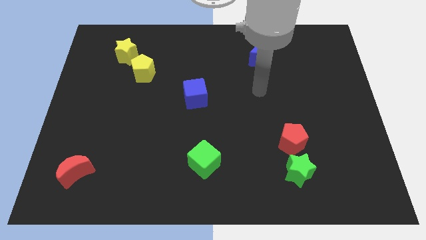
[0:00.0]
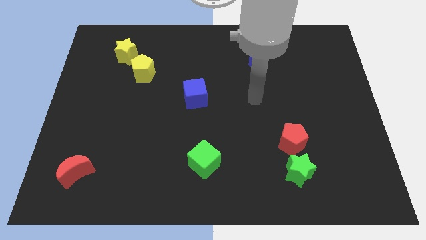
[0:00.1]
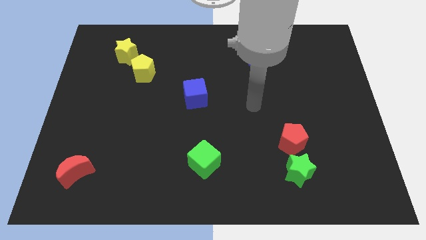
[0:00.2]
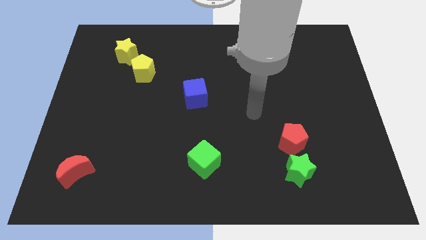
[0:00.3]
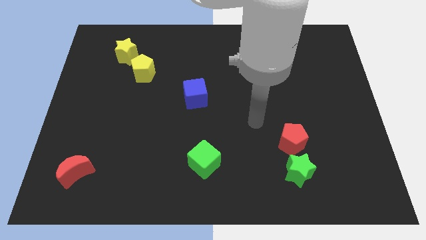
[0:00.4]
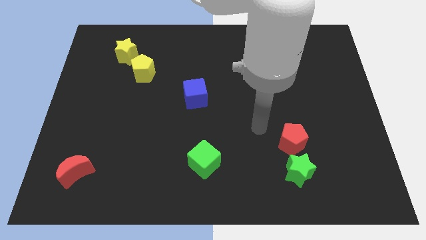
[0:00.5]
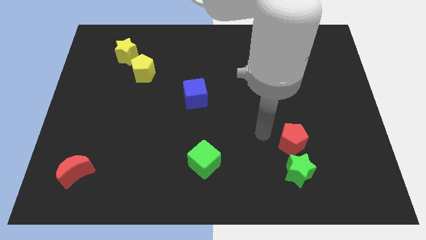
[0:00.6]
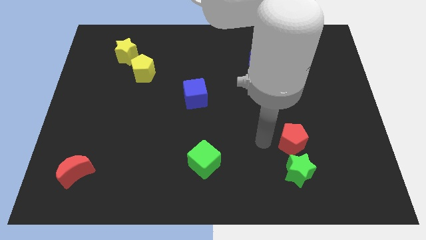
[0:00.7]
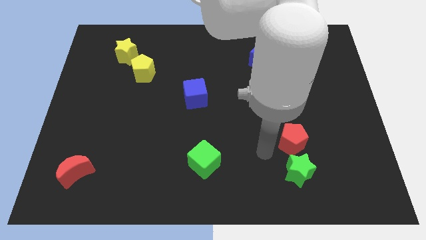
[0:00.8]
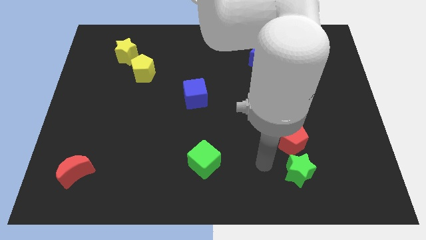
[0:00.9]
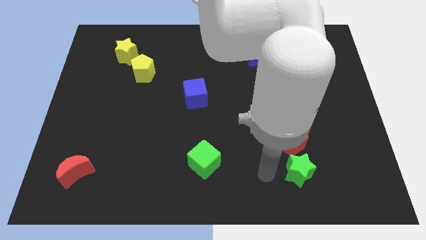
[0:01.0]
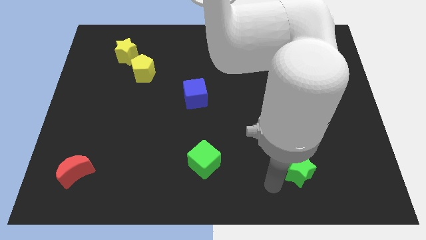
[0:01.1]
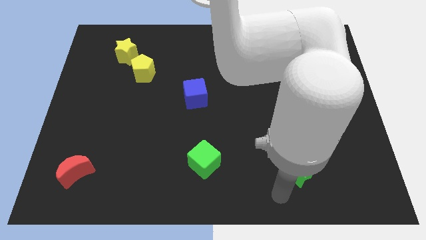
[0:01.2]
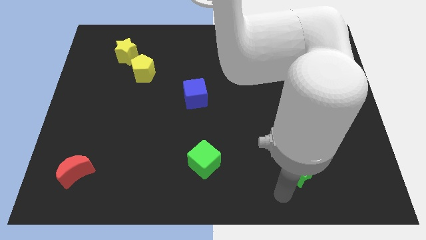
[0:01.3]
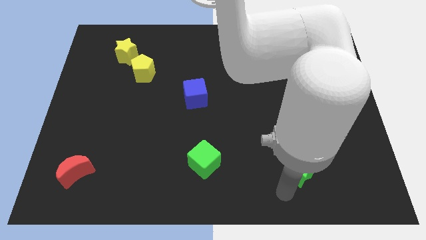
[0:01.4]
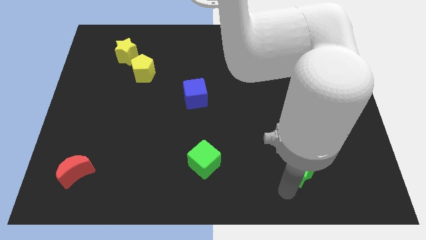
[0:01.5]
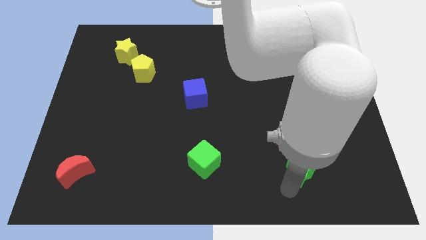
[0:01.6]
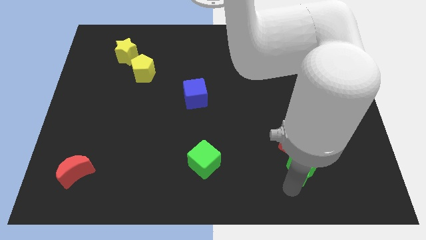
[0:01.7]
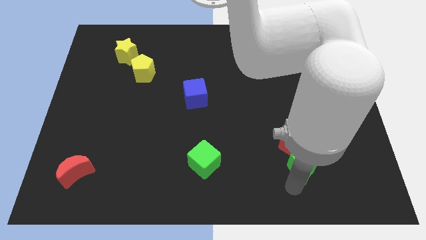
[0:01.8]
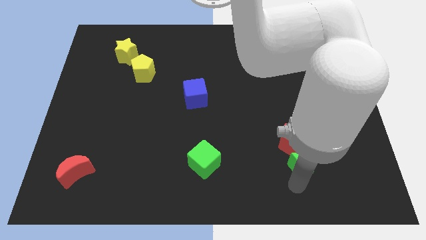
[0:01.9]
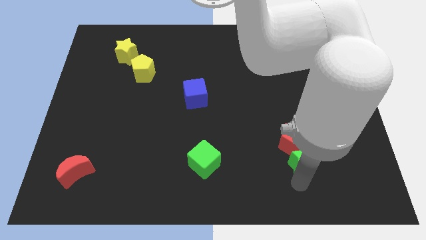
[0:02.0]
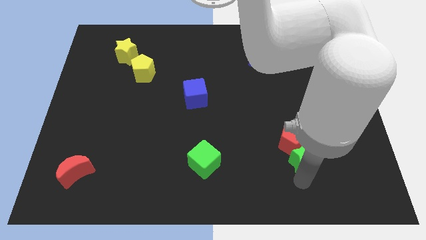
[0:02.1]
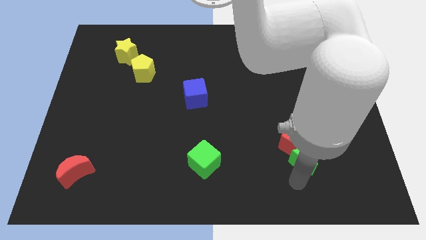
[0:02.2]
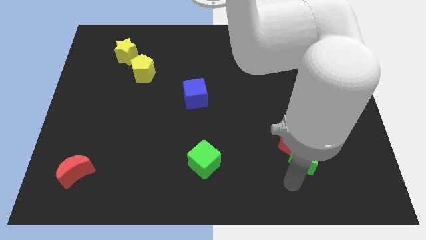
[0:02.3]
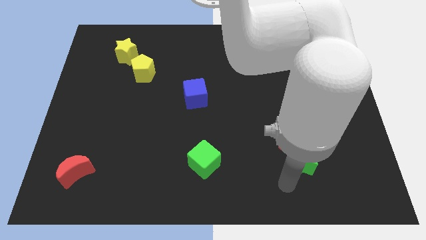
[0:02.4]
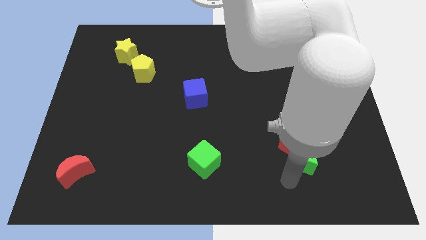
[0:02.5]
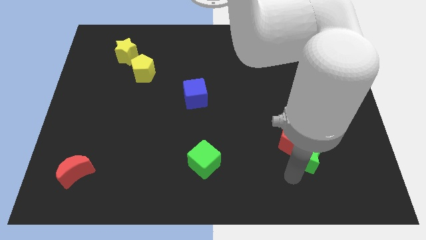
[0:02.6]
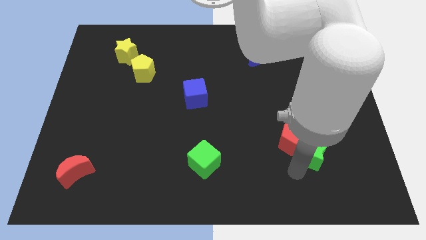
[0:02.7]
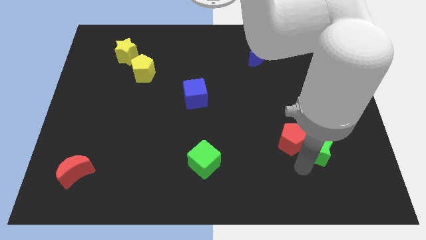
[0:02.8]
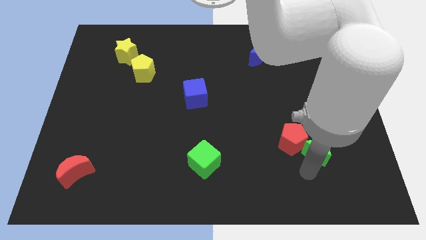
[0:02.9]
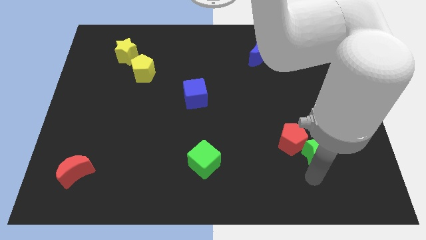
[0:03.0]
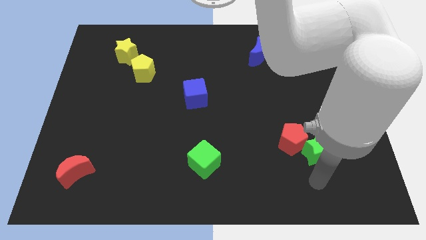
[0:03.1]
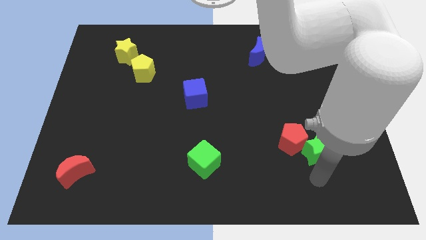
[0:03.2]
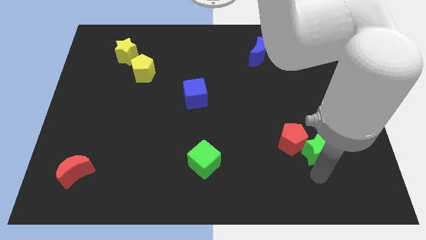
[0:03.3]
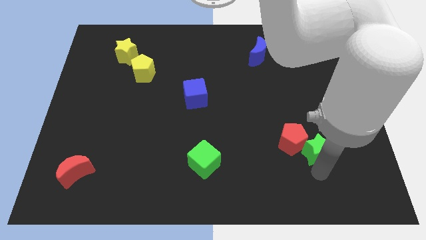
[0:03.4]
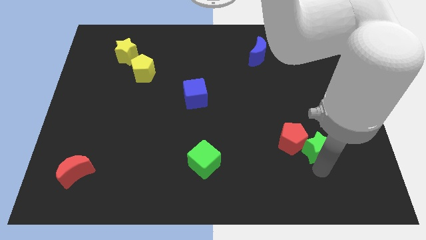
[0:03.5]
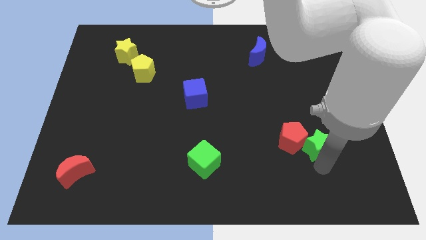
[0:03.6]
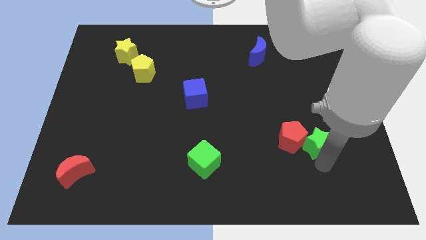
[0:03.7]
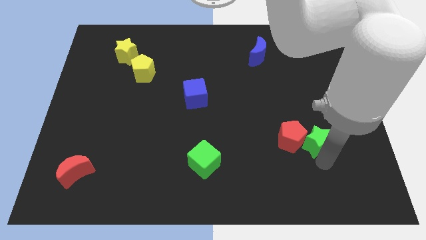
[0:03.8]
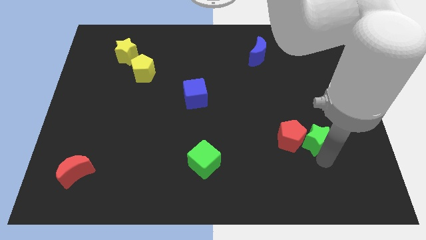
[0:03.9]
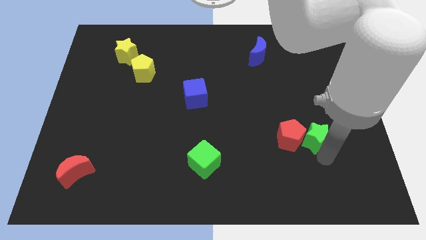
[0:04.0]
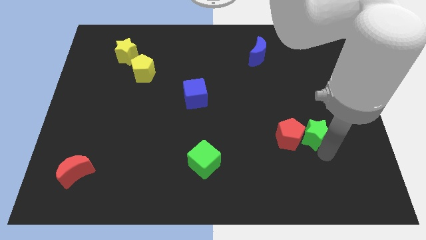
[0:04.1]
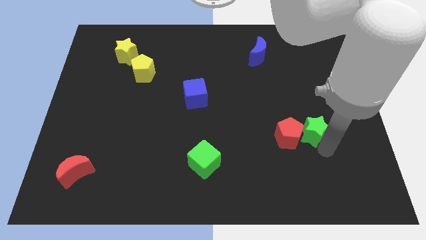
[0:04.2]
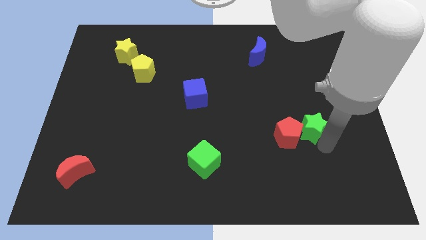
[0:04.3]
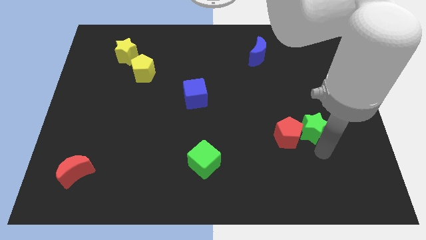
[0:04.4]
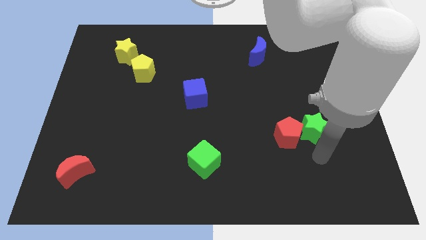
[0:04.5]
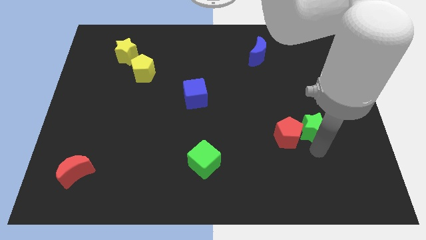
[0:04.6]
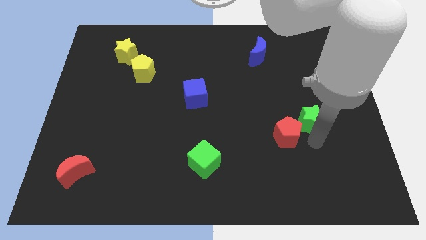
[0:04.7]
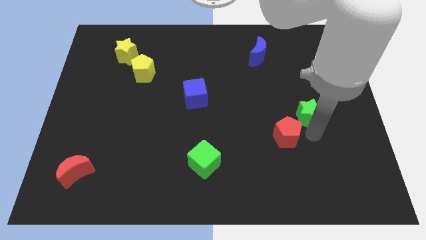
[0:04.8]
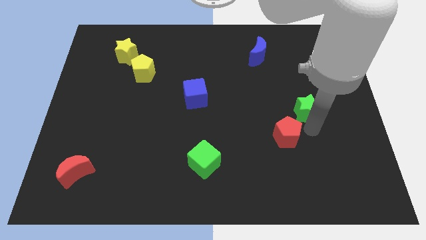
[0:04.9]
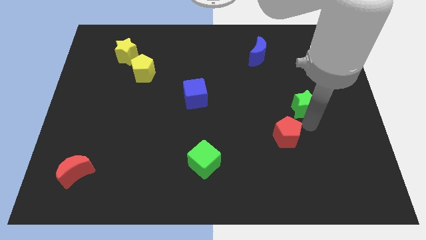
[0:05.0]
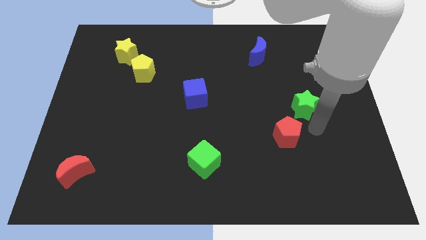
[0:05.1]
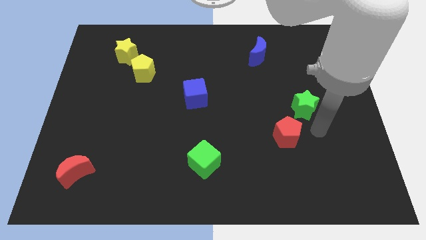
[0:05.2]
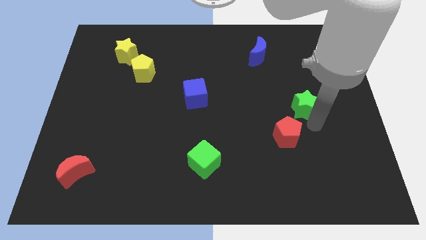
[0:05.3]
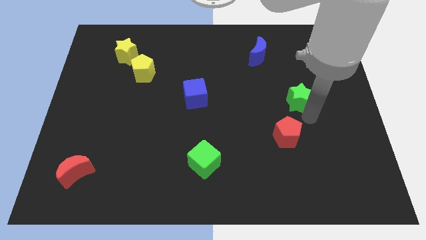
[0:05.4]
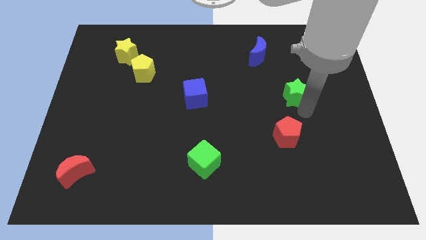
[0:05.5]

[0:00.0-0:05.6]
slide the green star up

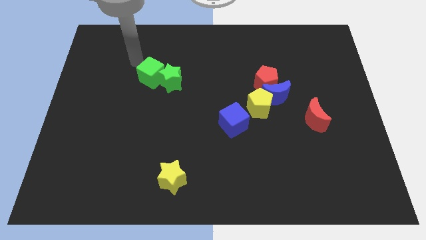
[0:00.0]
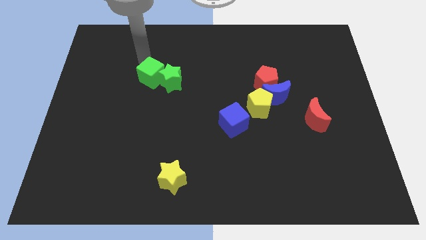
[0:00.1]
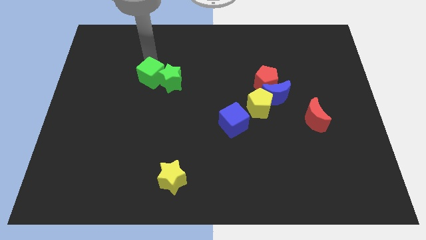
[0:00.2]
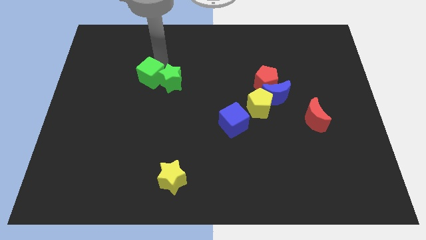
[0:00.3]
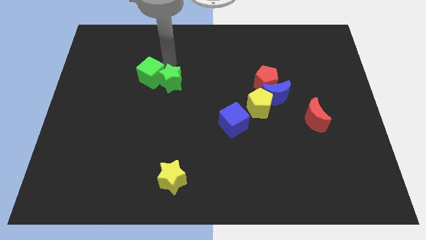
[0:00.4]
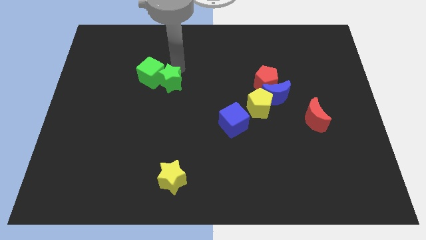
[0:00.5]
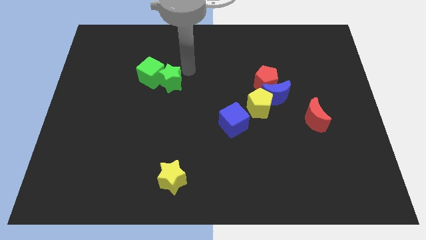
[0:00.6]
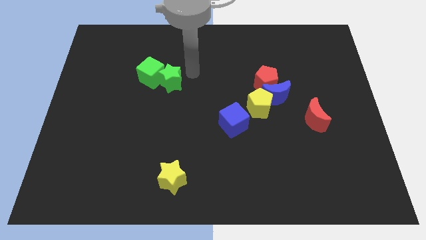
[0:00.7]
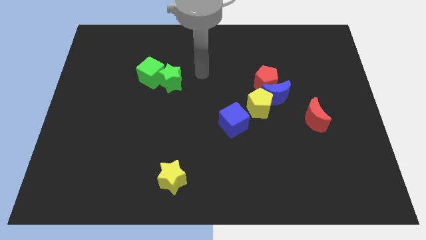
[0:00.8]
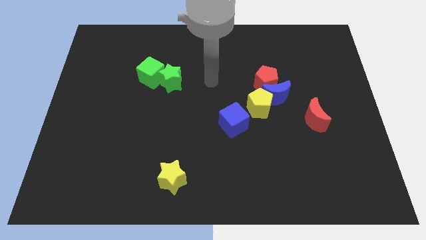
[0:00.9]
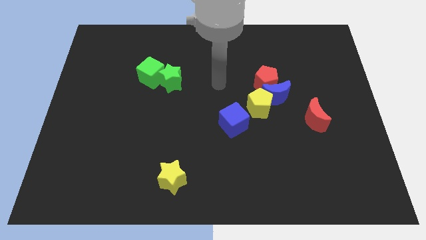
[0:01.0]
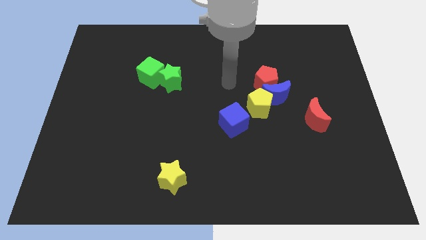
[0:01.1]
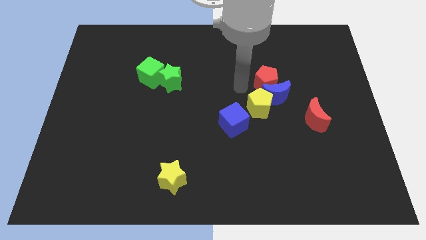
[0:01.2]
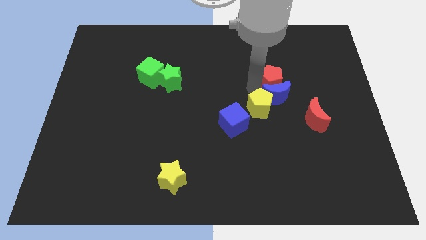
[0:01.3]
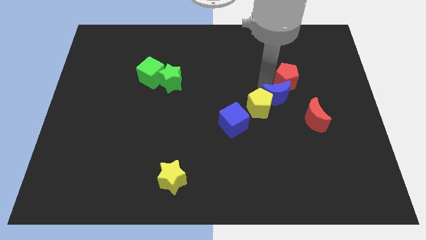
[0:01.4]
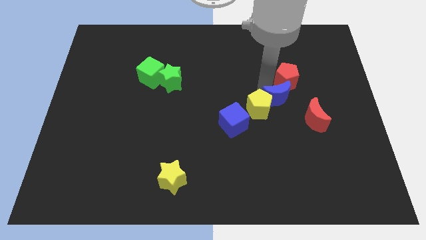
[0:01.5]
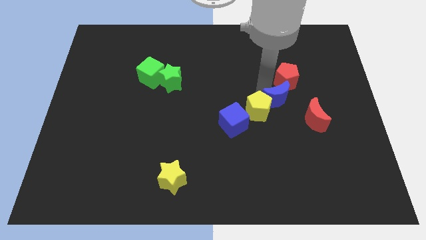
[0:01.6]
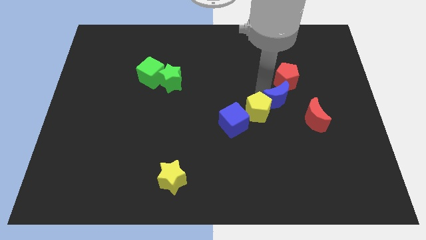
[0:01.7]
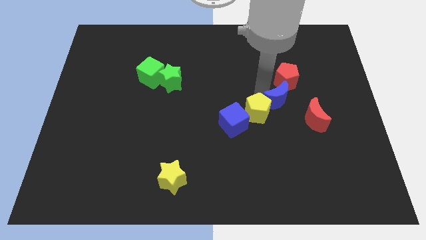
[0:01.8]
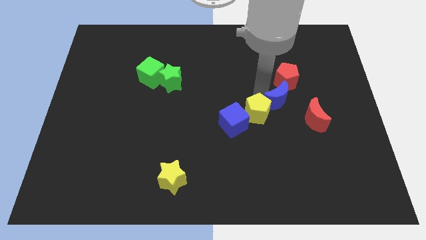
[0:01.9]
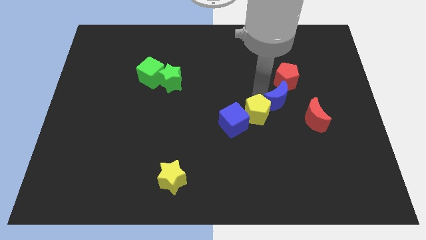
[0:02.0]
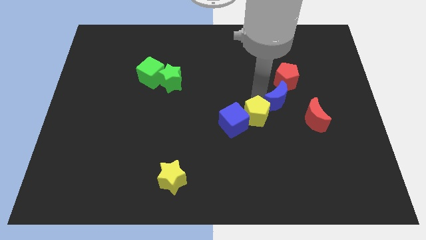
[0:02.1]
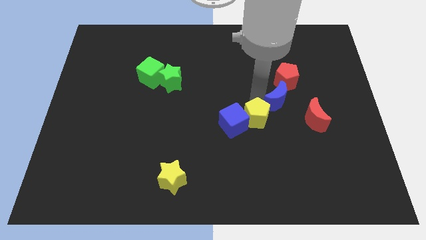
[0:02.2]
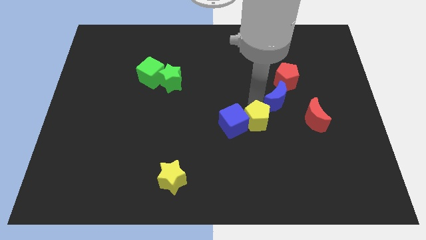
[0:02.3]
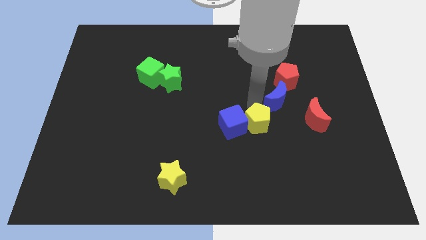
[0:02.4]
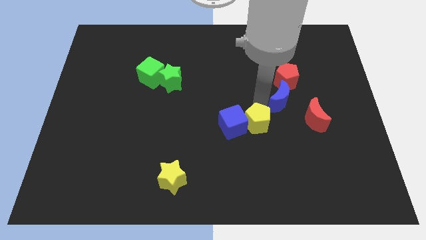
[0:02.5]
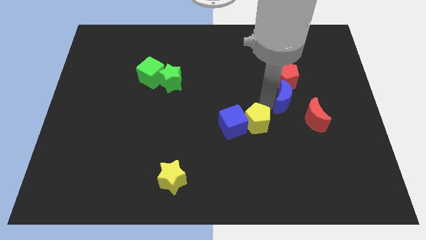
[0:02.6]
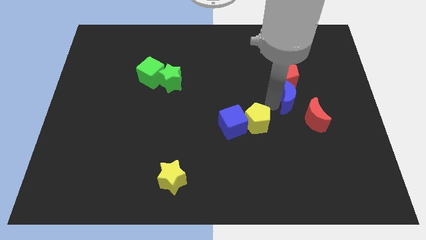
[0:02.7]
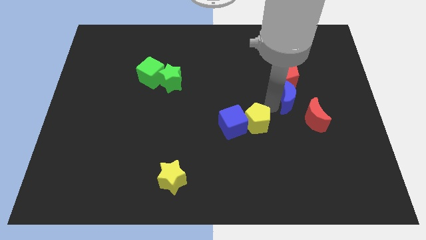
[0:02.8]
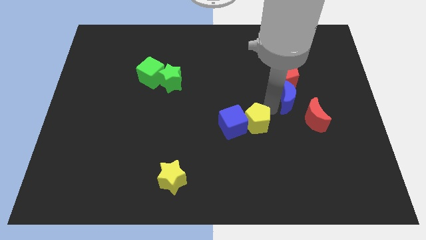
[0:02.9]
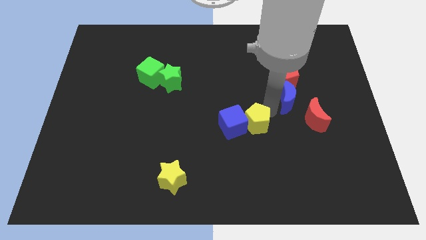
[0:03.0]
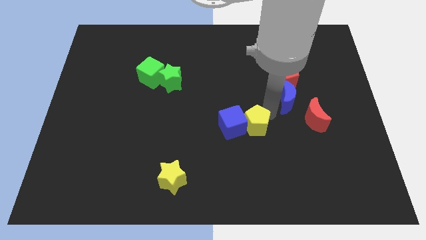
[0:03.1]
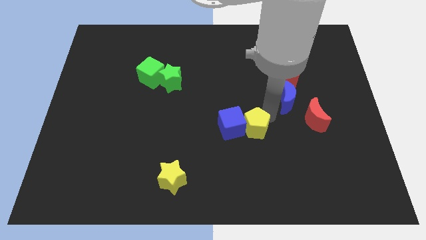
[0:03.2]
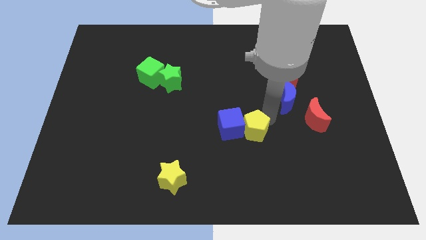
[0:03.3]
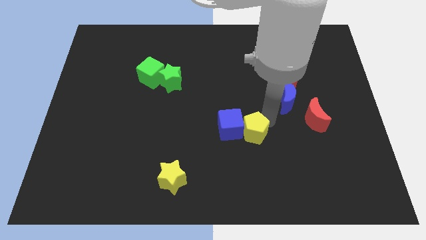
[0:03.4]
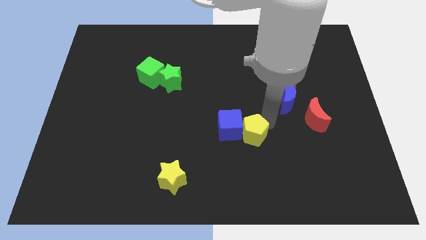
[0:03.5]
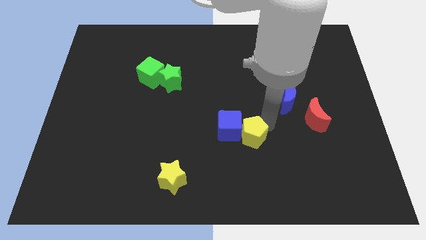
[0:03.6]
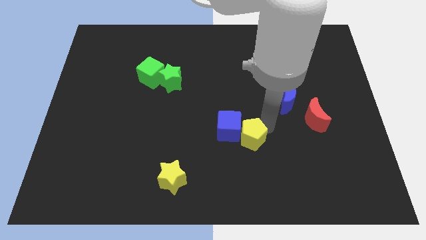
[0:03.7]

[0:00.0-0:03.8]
slightly push the yellow pentagon down and left
